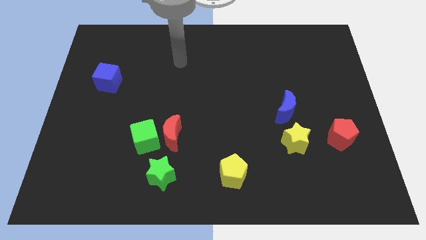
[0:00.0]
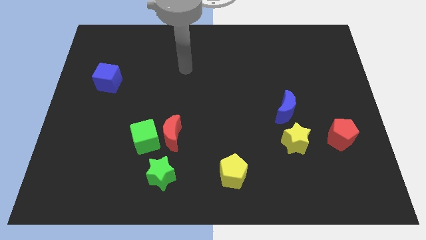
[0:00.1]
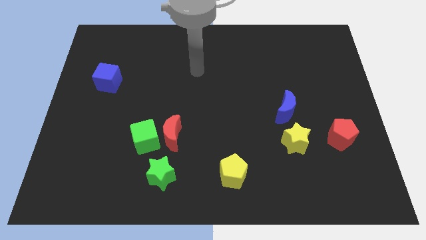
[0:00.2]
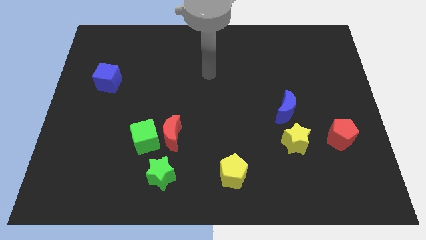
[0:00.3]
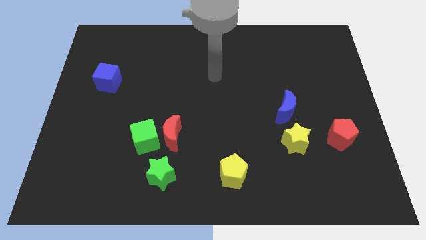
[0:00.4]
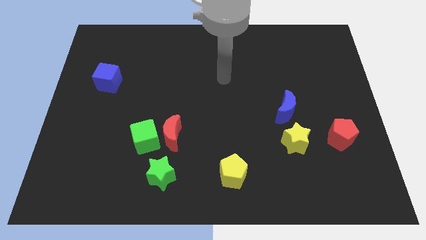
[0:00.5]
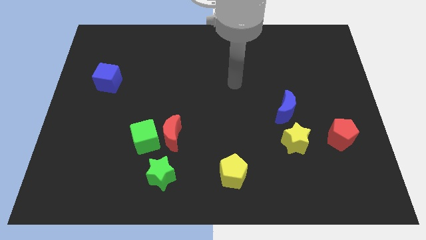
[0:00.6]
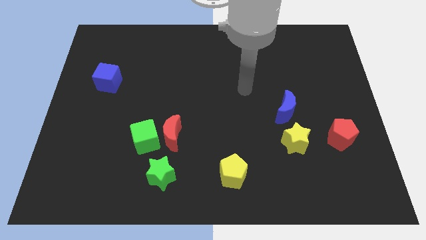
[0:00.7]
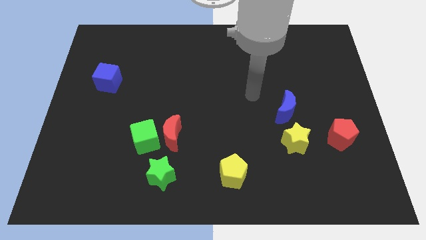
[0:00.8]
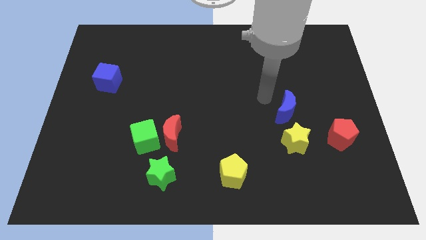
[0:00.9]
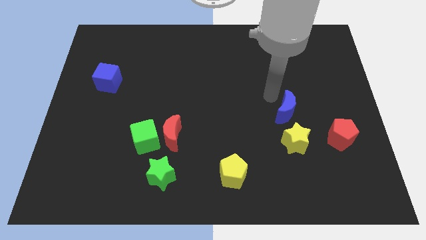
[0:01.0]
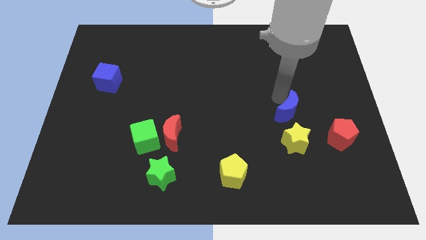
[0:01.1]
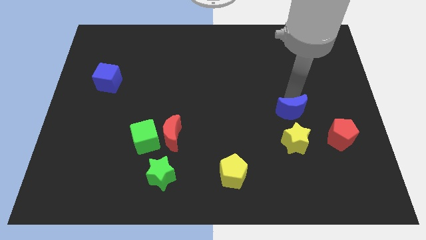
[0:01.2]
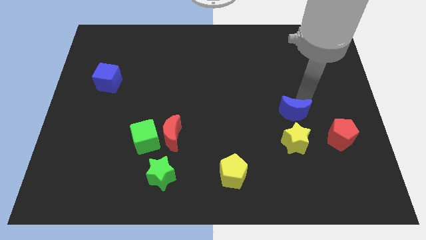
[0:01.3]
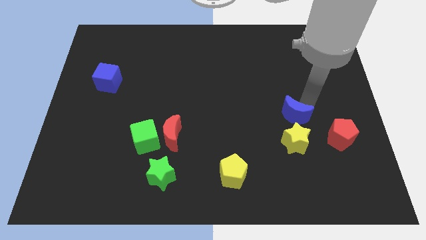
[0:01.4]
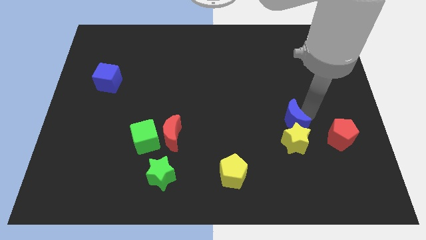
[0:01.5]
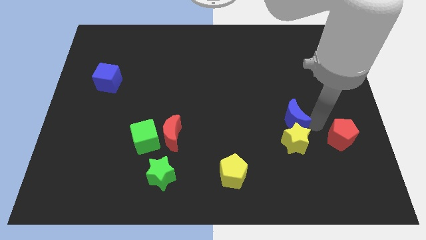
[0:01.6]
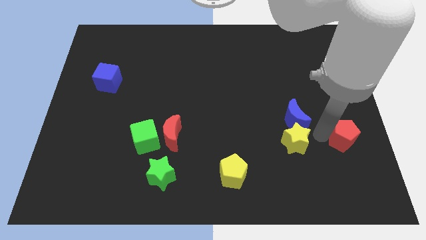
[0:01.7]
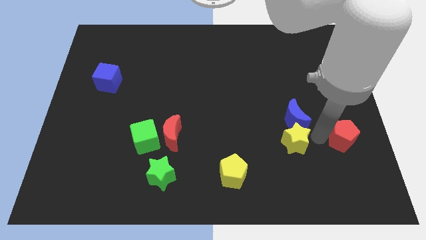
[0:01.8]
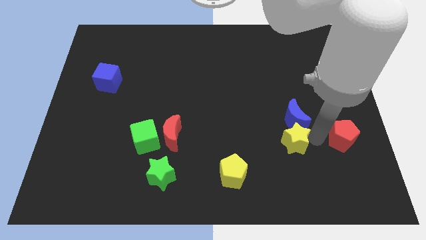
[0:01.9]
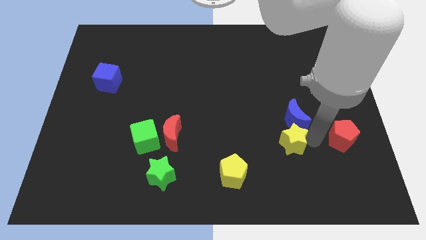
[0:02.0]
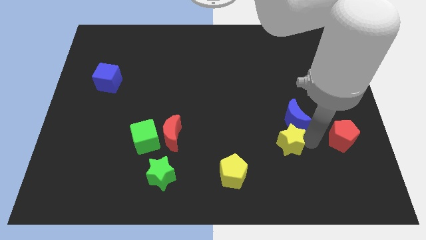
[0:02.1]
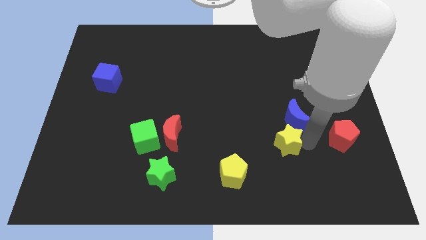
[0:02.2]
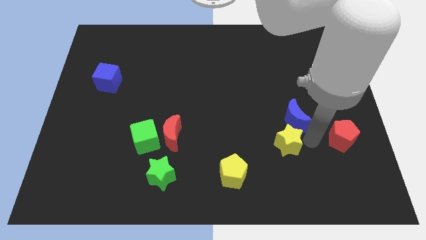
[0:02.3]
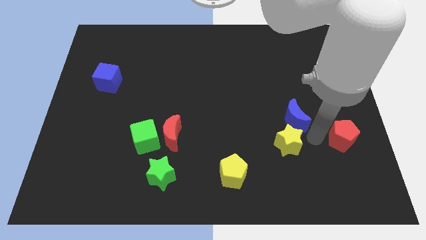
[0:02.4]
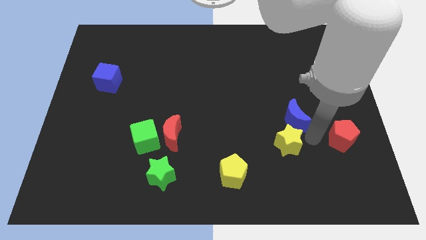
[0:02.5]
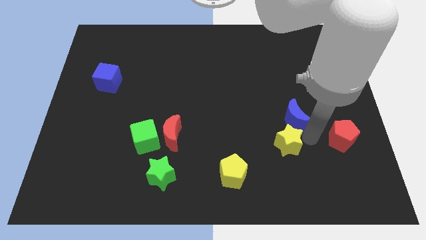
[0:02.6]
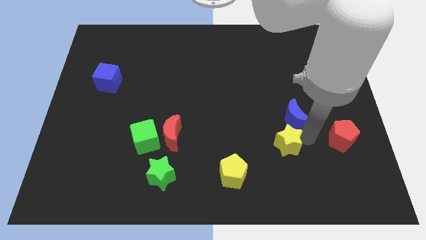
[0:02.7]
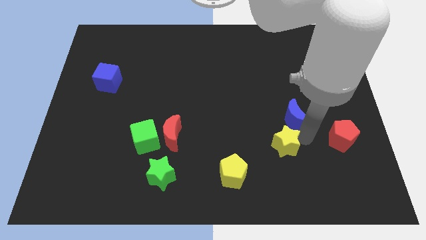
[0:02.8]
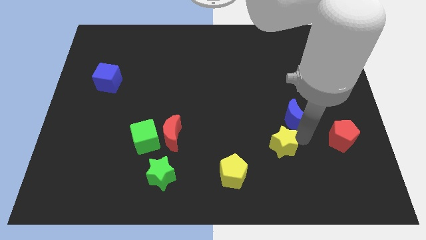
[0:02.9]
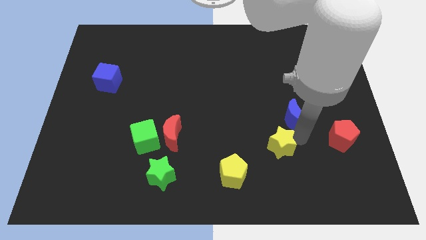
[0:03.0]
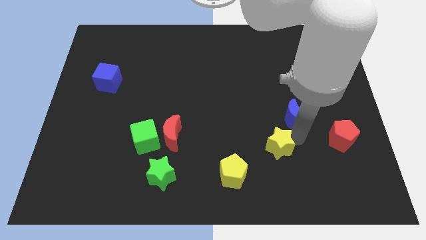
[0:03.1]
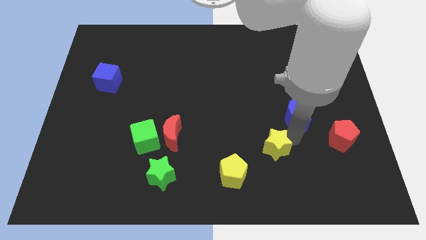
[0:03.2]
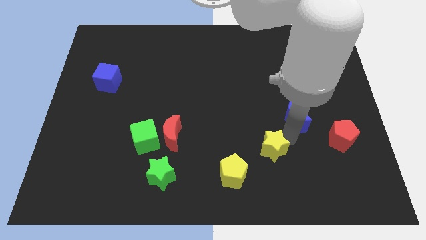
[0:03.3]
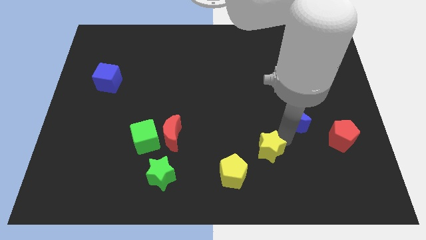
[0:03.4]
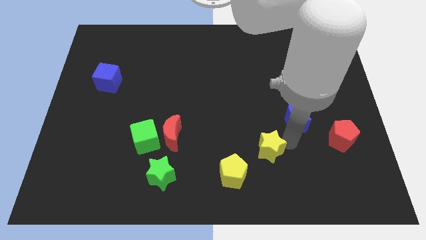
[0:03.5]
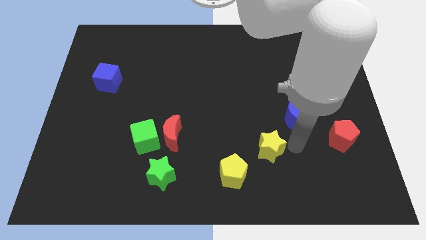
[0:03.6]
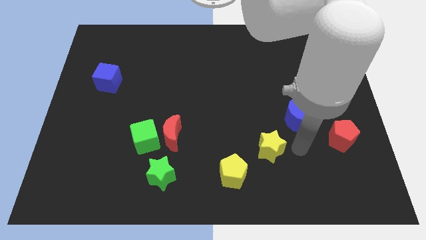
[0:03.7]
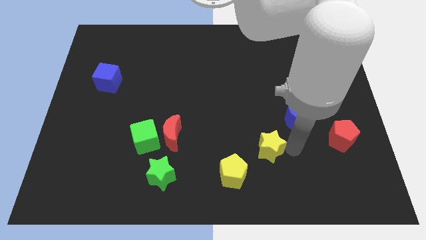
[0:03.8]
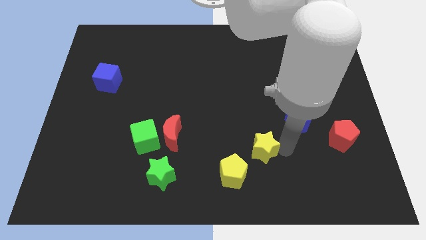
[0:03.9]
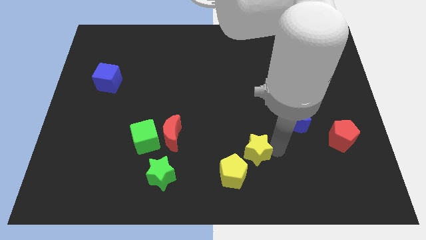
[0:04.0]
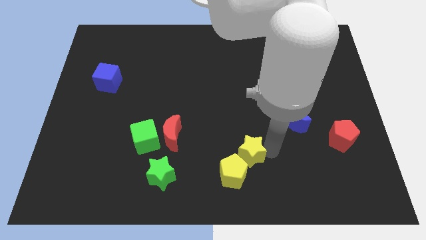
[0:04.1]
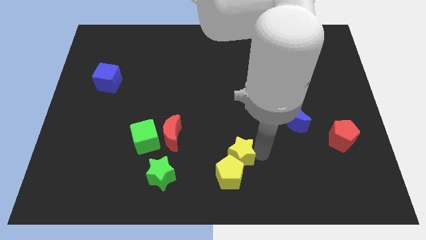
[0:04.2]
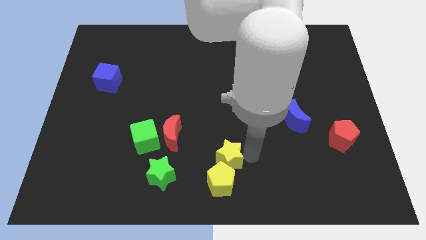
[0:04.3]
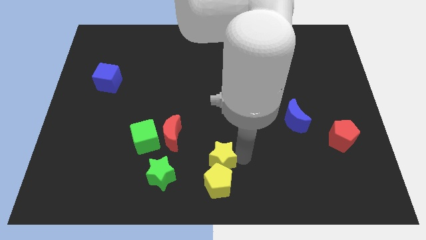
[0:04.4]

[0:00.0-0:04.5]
put the yellow star diagonally up and to the left of the yellow pentagon

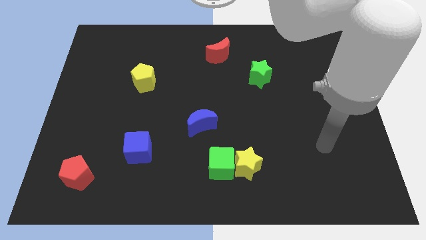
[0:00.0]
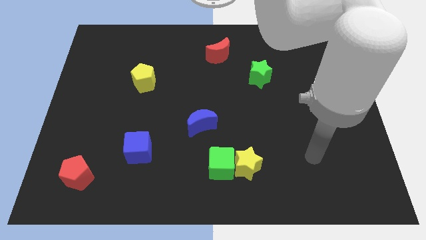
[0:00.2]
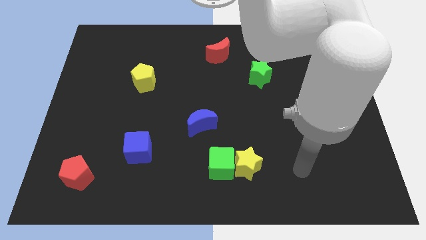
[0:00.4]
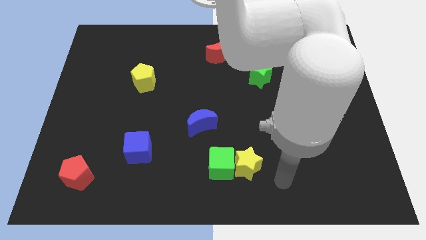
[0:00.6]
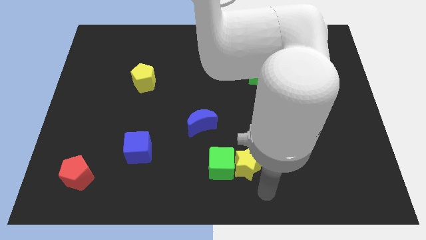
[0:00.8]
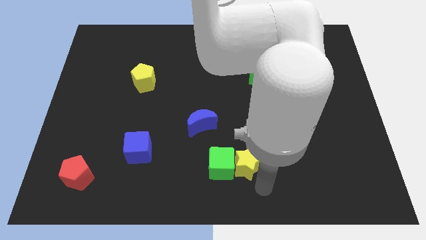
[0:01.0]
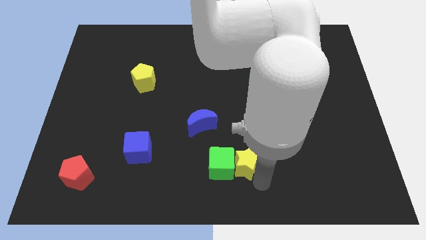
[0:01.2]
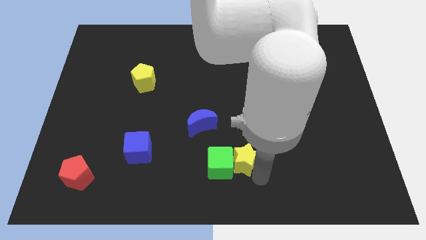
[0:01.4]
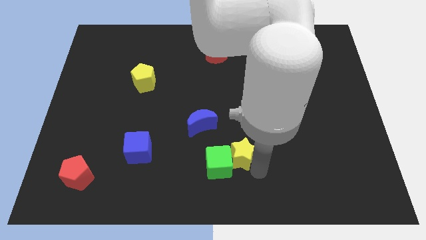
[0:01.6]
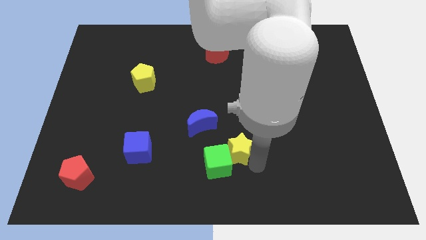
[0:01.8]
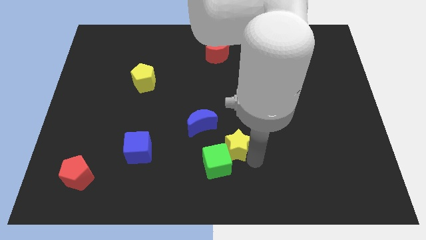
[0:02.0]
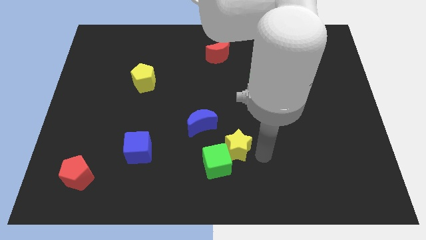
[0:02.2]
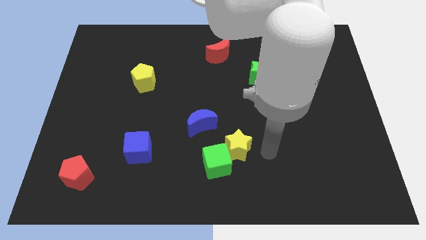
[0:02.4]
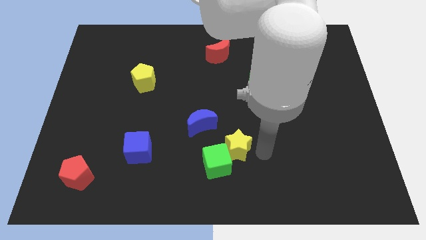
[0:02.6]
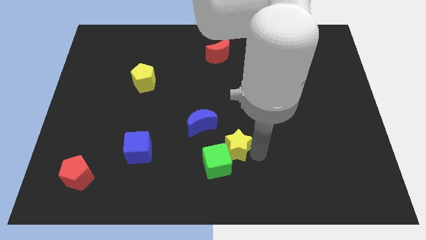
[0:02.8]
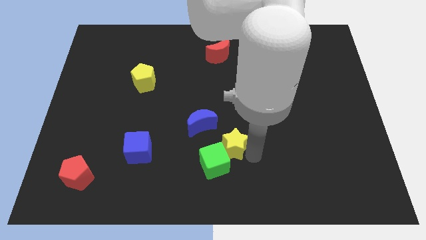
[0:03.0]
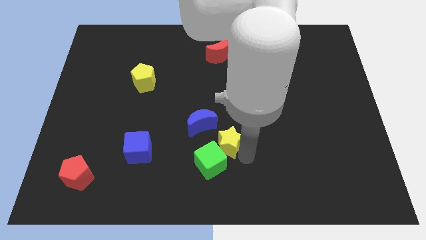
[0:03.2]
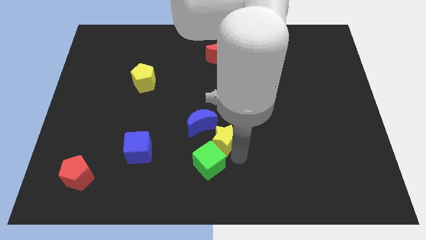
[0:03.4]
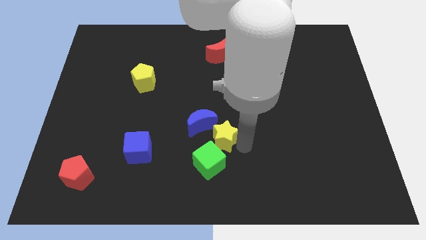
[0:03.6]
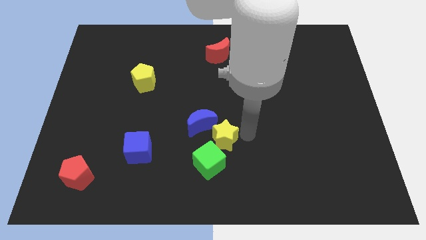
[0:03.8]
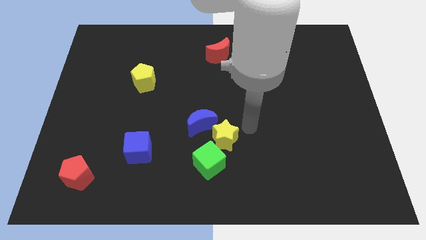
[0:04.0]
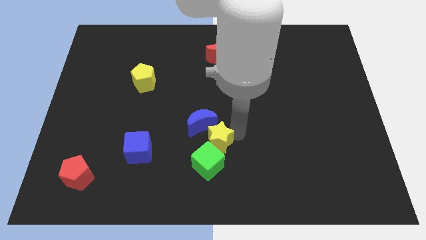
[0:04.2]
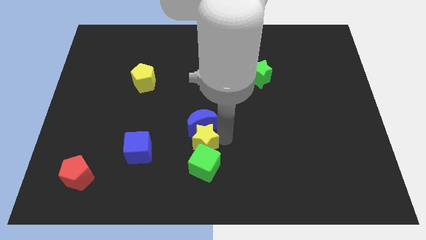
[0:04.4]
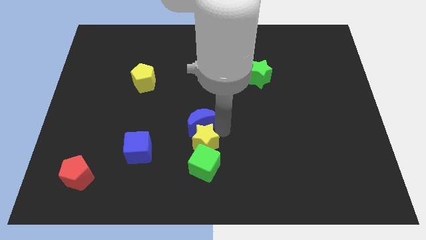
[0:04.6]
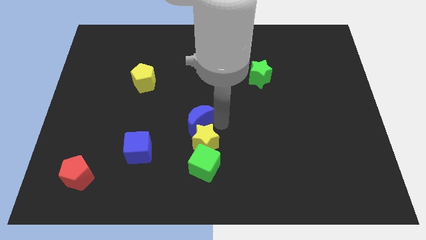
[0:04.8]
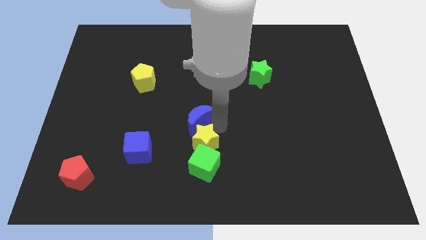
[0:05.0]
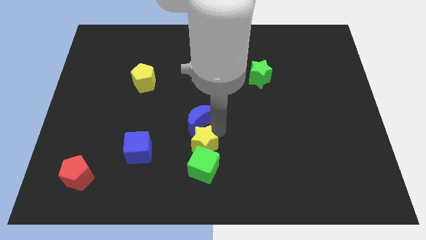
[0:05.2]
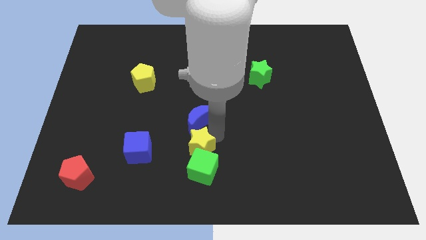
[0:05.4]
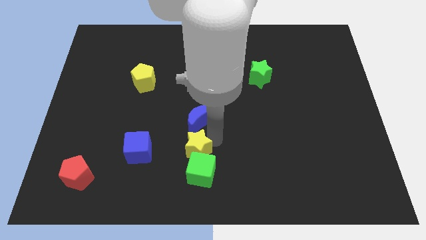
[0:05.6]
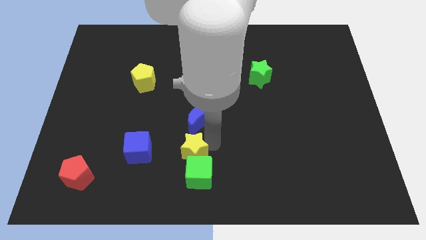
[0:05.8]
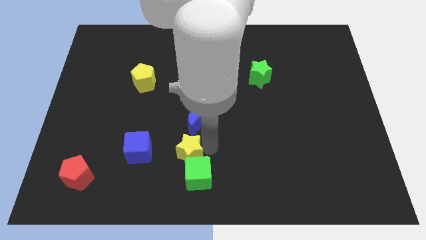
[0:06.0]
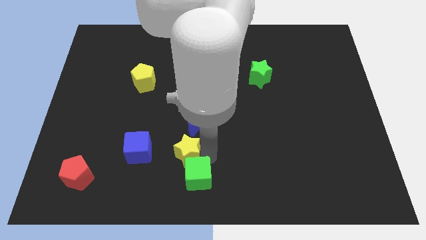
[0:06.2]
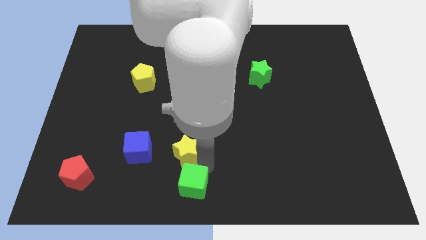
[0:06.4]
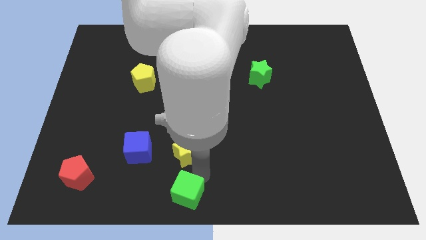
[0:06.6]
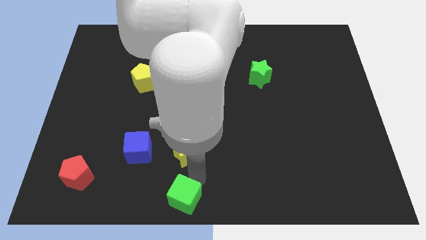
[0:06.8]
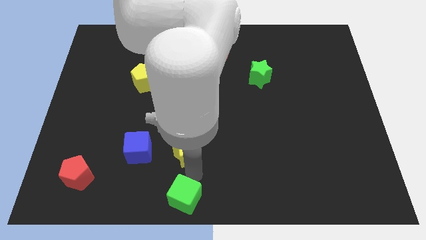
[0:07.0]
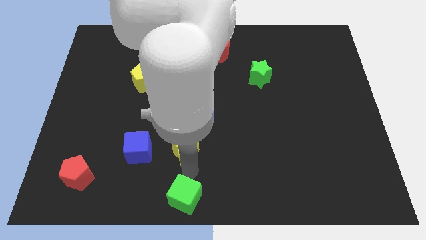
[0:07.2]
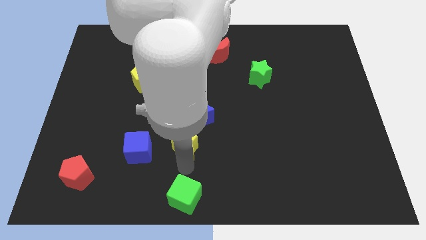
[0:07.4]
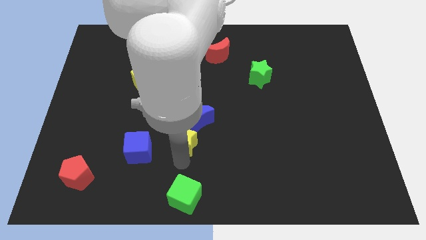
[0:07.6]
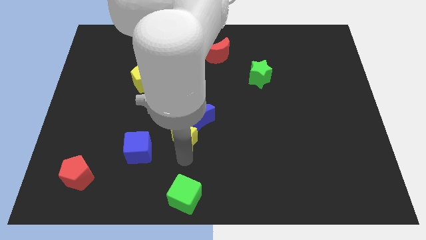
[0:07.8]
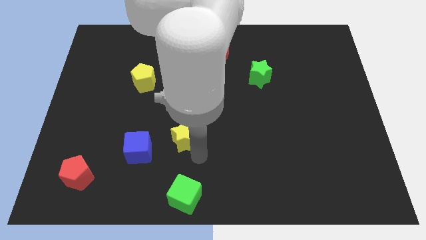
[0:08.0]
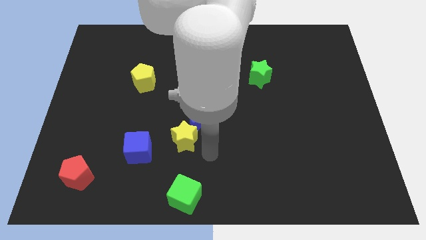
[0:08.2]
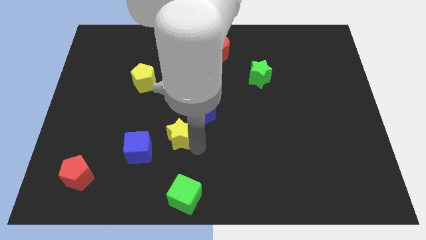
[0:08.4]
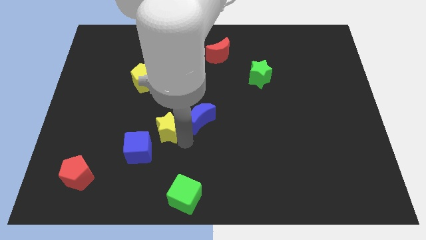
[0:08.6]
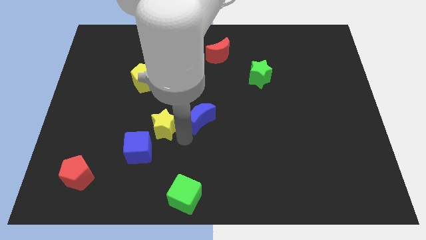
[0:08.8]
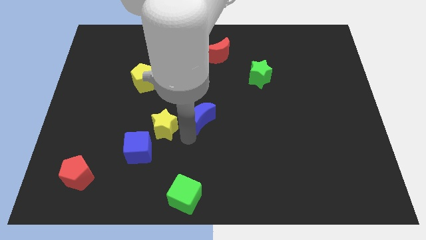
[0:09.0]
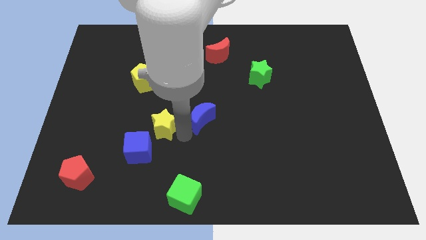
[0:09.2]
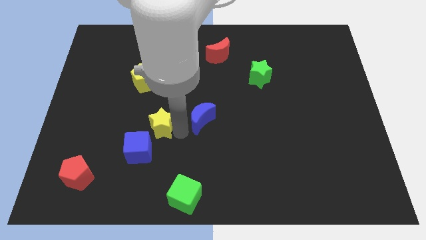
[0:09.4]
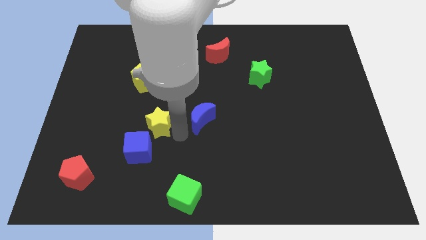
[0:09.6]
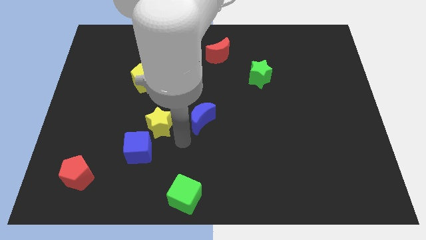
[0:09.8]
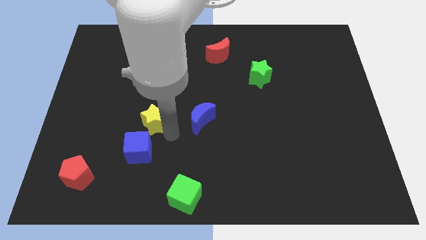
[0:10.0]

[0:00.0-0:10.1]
slide the yellow star to the bottom side of the yellow pentagon
